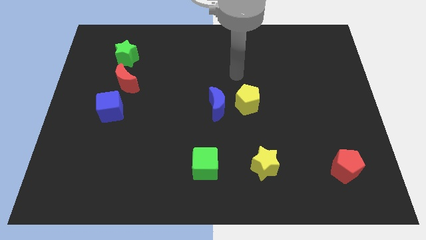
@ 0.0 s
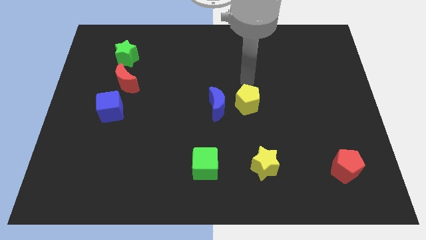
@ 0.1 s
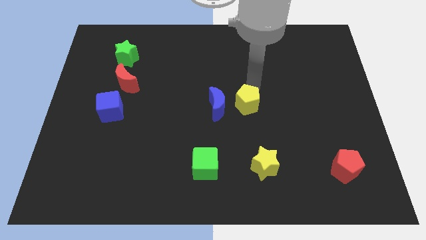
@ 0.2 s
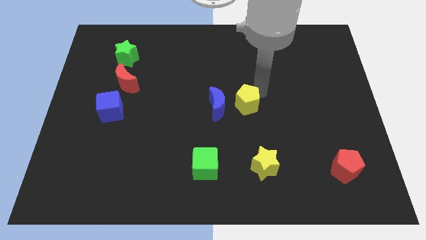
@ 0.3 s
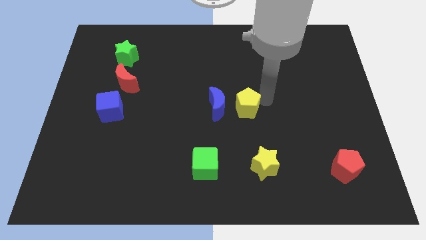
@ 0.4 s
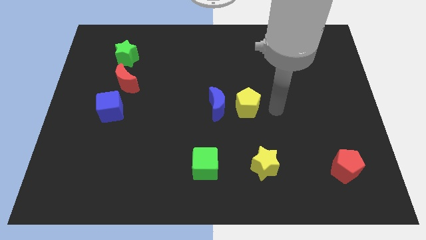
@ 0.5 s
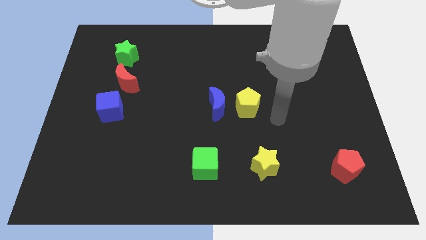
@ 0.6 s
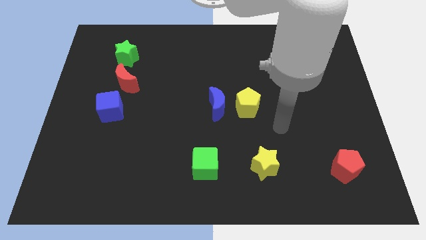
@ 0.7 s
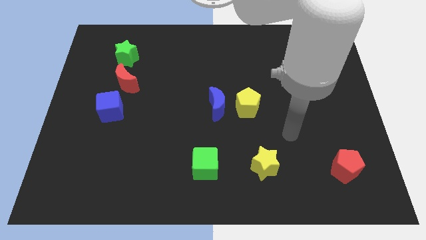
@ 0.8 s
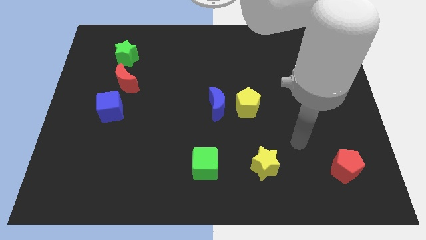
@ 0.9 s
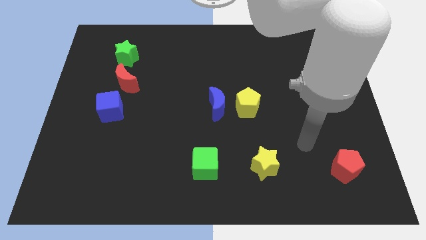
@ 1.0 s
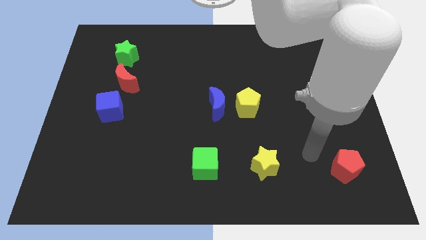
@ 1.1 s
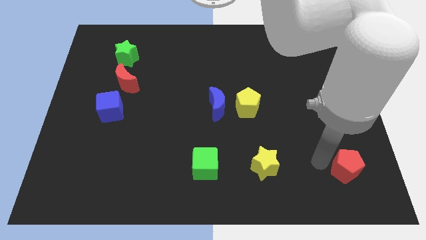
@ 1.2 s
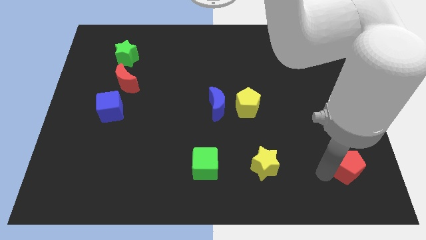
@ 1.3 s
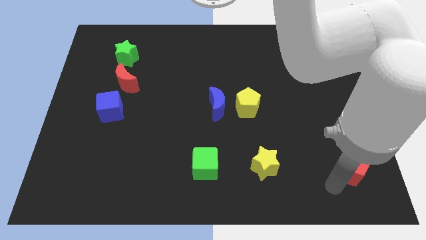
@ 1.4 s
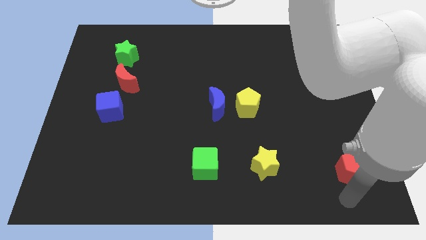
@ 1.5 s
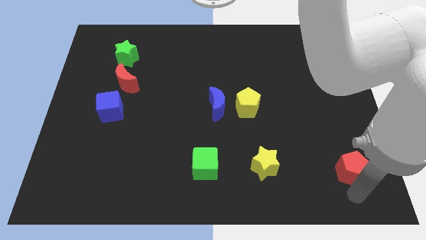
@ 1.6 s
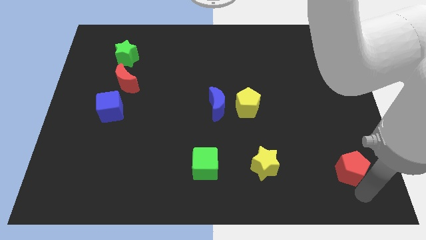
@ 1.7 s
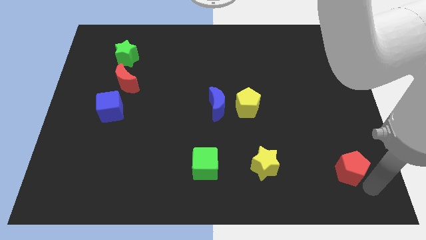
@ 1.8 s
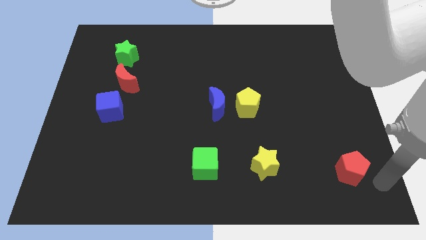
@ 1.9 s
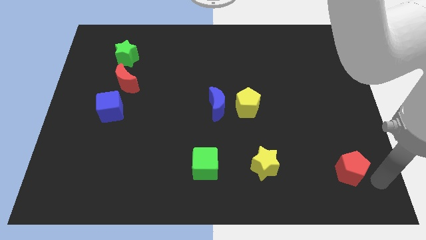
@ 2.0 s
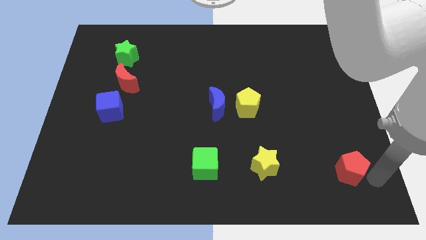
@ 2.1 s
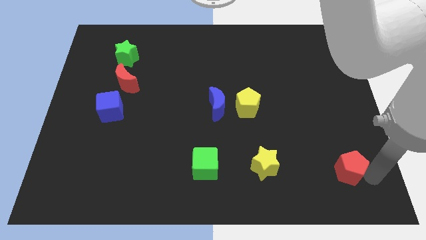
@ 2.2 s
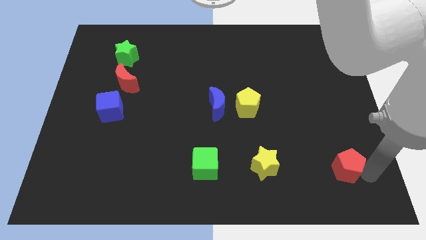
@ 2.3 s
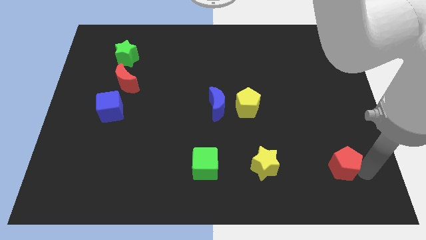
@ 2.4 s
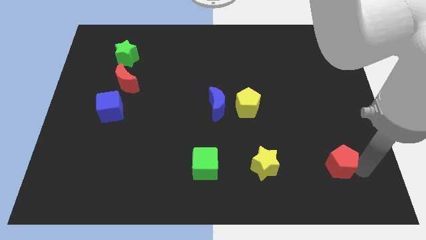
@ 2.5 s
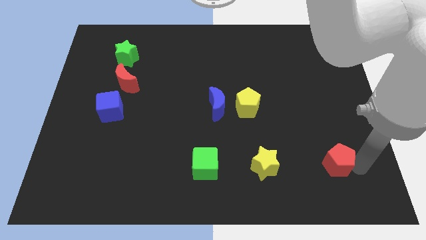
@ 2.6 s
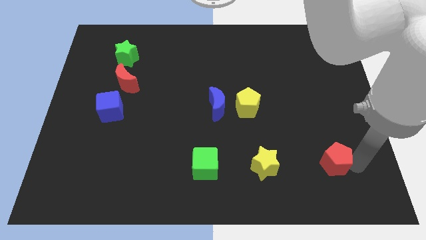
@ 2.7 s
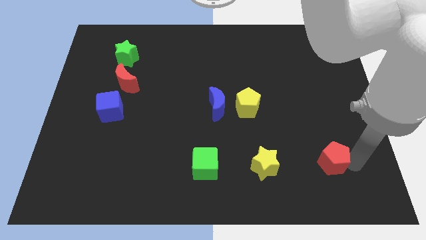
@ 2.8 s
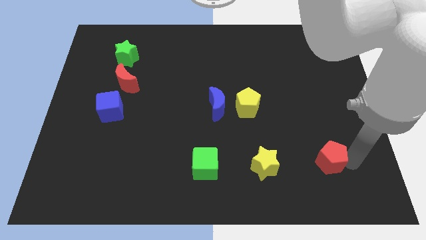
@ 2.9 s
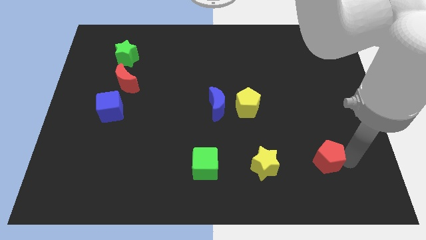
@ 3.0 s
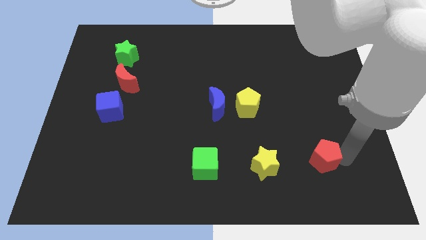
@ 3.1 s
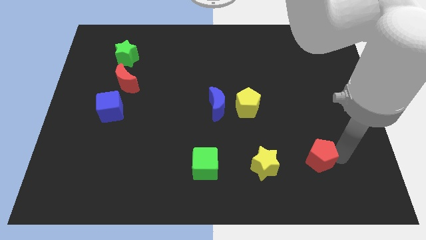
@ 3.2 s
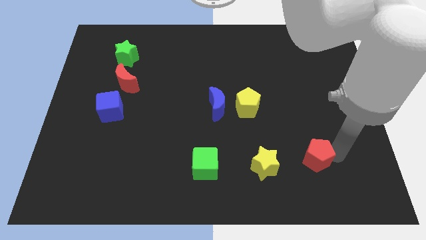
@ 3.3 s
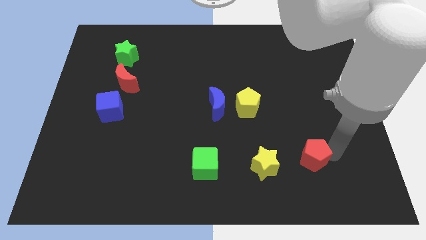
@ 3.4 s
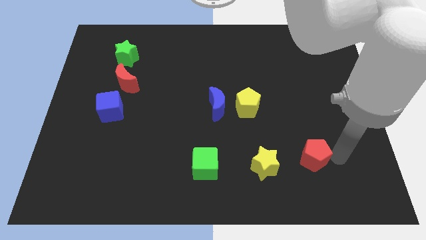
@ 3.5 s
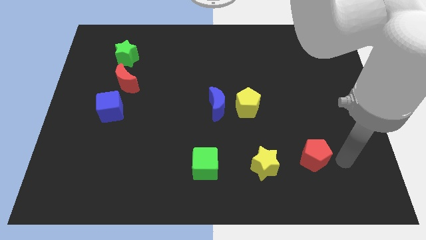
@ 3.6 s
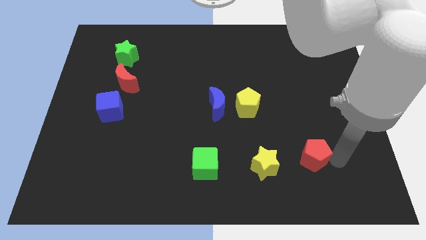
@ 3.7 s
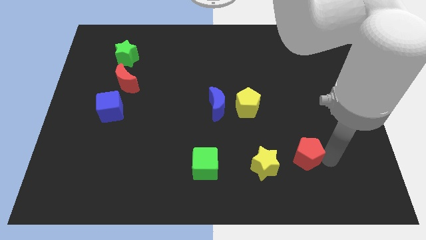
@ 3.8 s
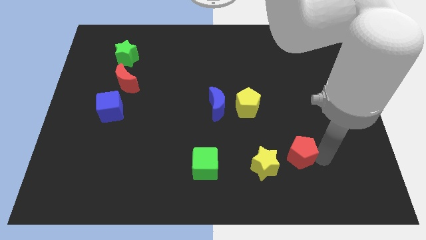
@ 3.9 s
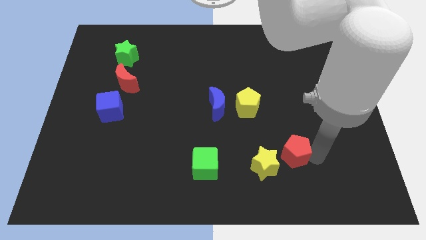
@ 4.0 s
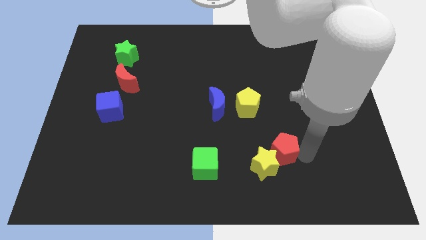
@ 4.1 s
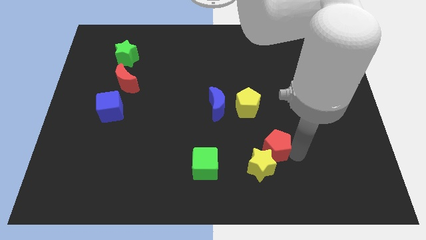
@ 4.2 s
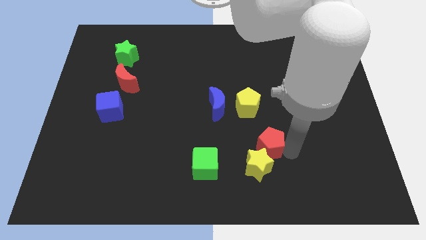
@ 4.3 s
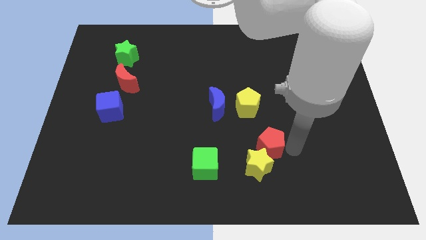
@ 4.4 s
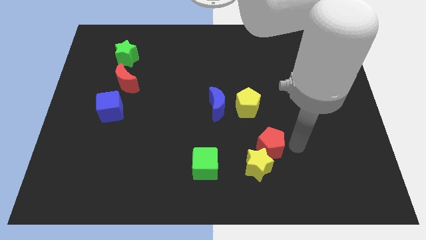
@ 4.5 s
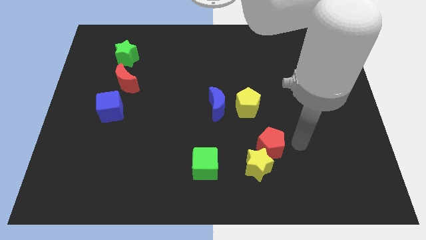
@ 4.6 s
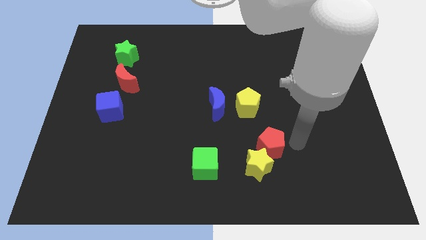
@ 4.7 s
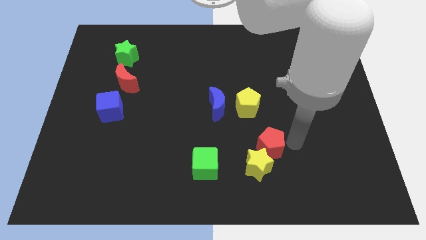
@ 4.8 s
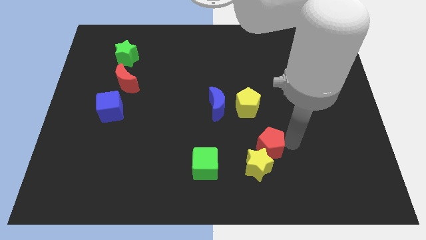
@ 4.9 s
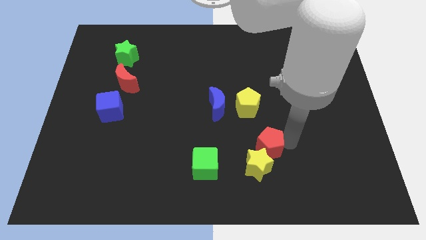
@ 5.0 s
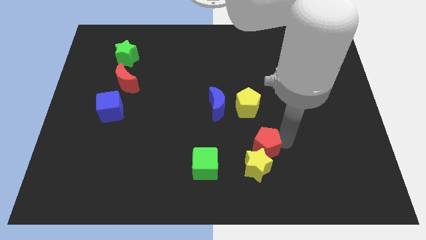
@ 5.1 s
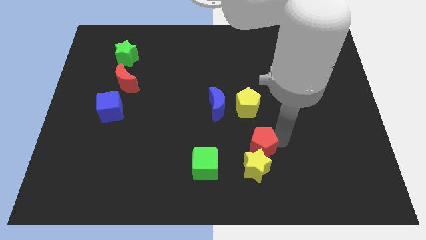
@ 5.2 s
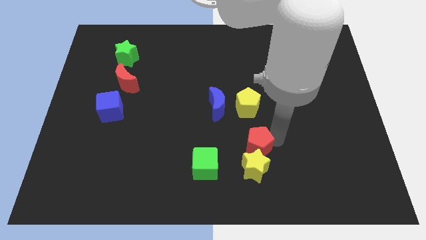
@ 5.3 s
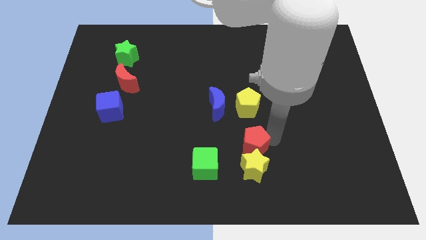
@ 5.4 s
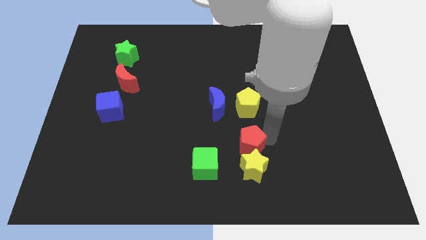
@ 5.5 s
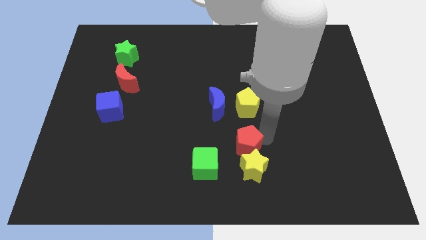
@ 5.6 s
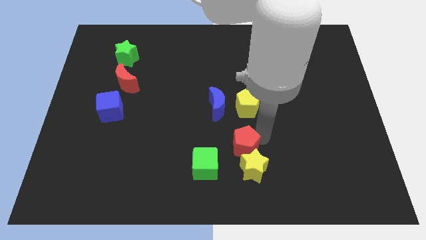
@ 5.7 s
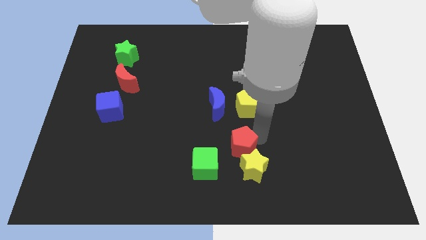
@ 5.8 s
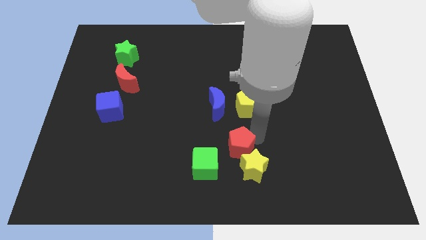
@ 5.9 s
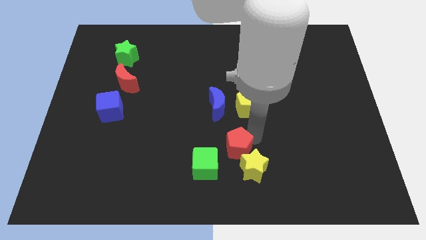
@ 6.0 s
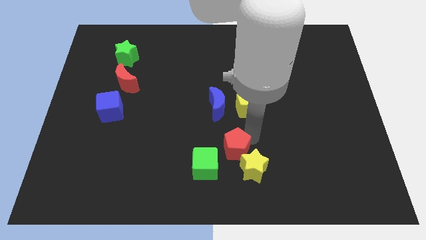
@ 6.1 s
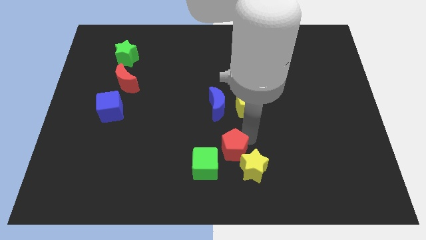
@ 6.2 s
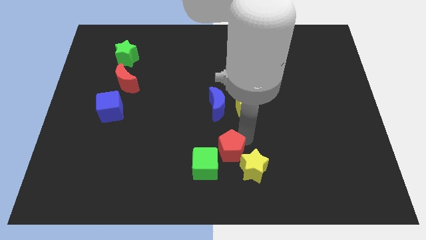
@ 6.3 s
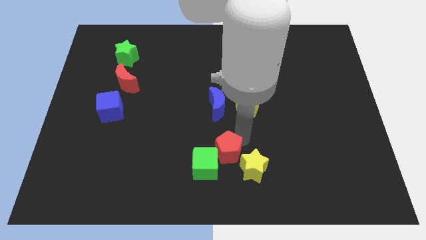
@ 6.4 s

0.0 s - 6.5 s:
push the red pentagon towards the green cube
